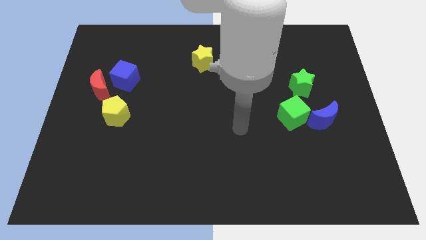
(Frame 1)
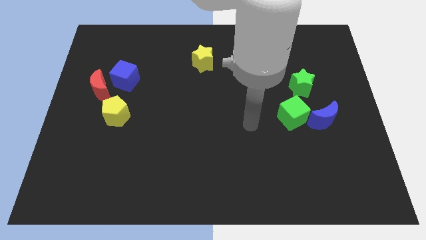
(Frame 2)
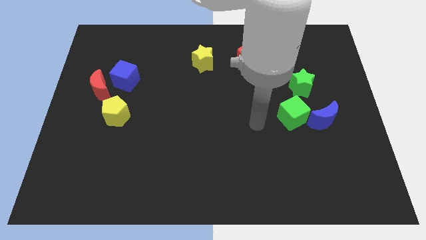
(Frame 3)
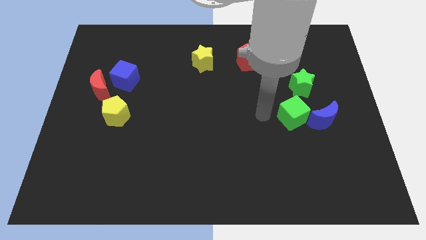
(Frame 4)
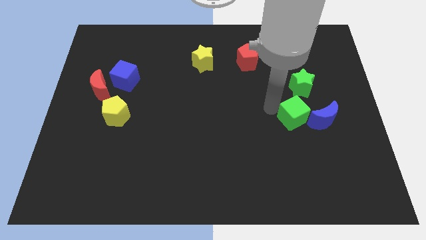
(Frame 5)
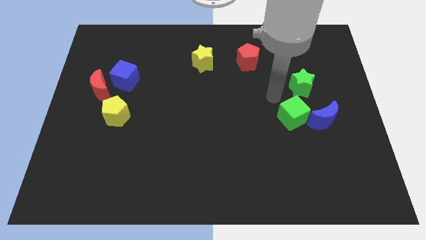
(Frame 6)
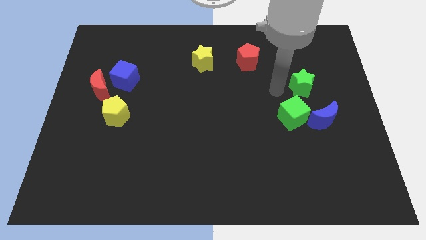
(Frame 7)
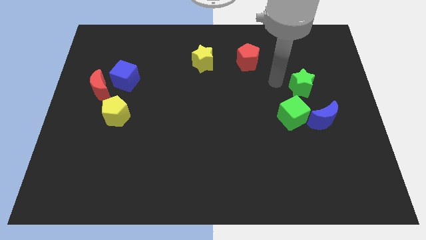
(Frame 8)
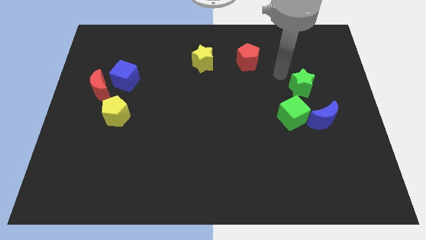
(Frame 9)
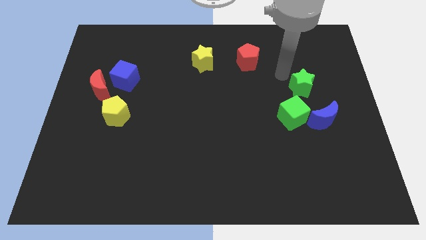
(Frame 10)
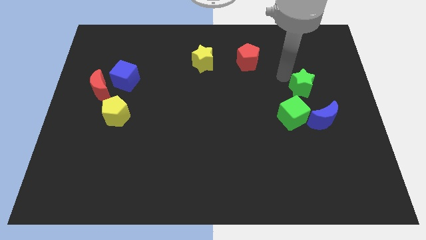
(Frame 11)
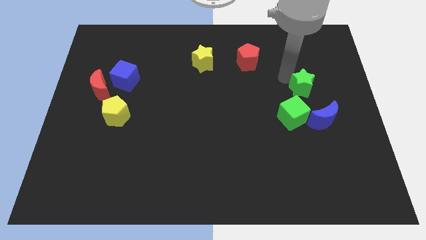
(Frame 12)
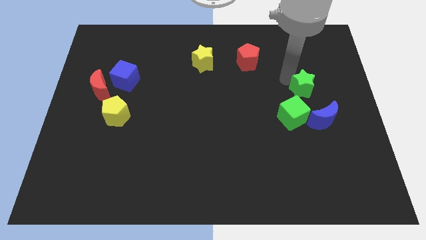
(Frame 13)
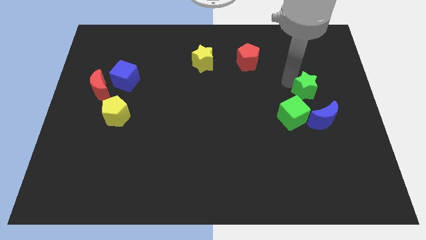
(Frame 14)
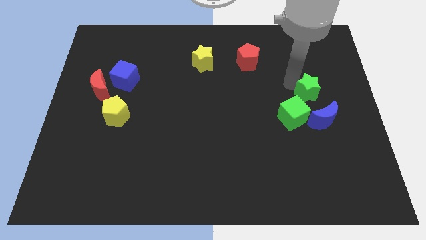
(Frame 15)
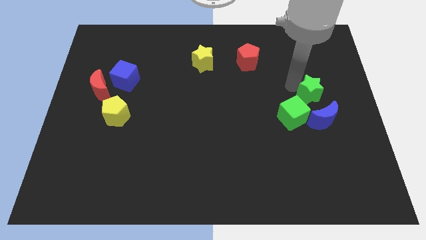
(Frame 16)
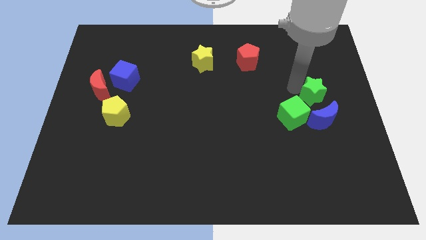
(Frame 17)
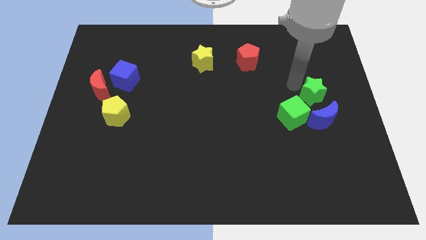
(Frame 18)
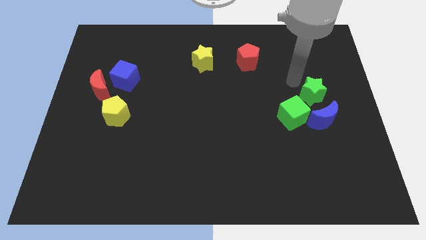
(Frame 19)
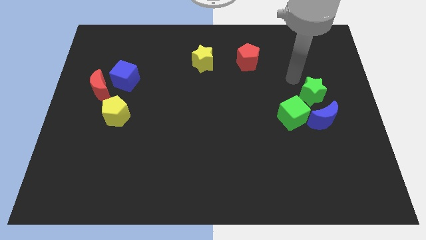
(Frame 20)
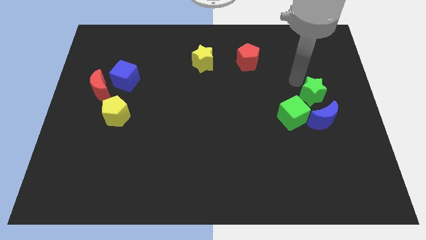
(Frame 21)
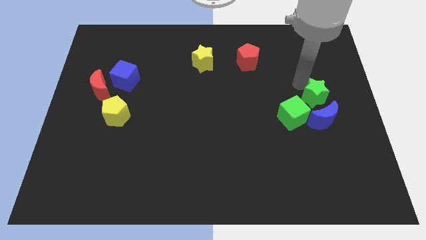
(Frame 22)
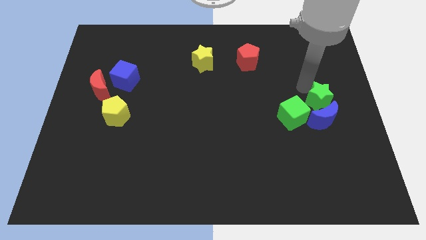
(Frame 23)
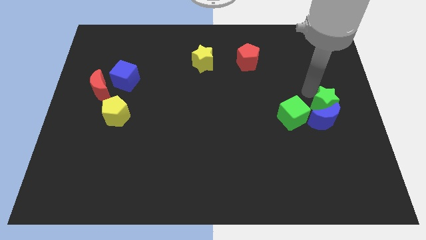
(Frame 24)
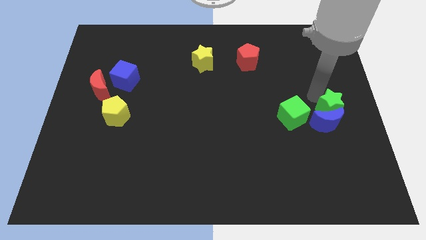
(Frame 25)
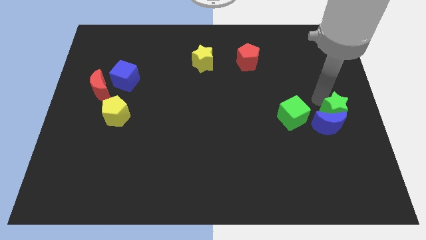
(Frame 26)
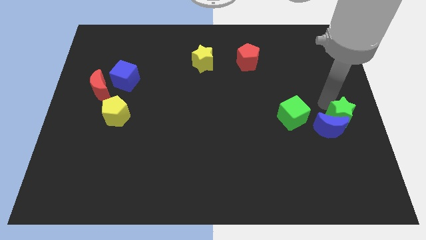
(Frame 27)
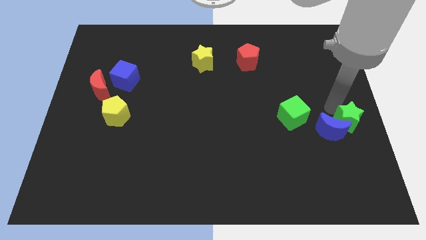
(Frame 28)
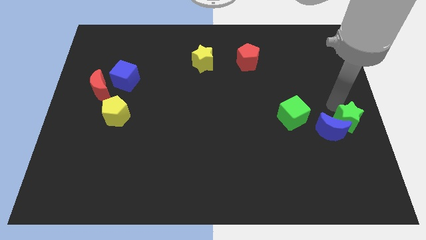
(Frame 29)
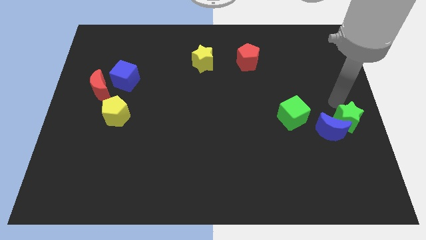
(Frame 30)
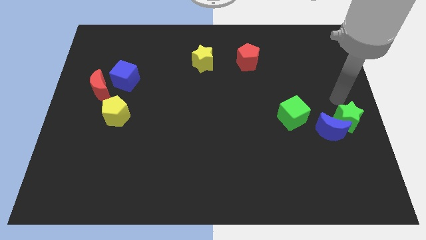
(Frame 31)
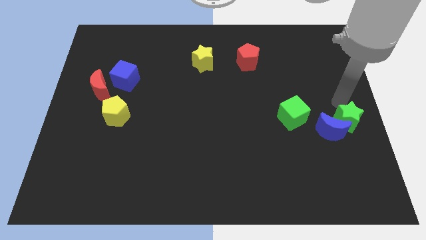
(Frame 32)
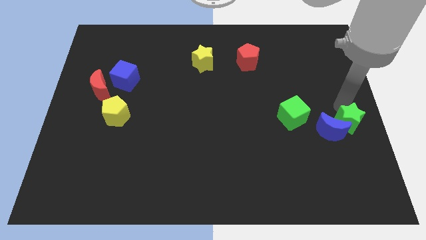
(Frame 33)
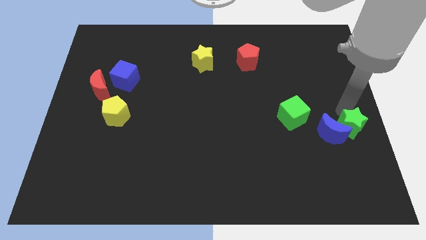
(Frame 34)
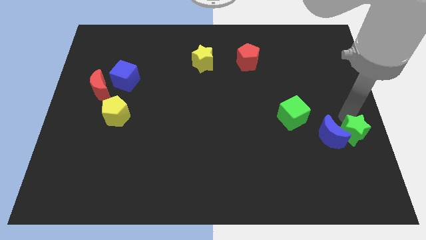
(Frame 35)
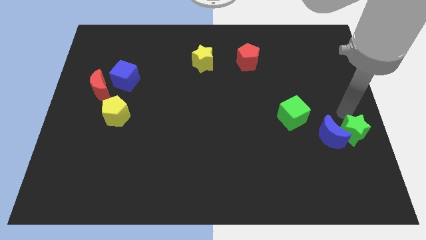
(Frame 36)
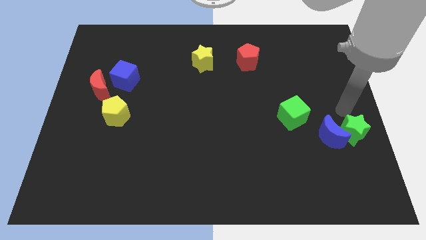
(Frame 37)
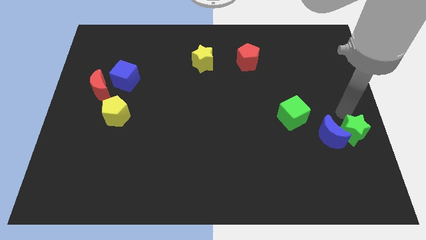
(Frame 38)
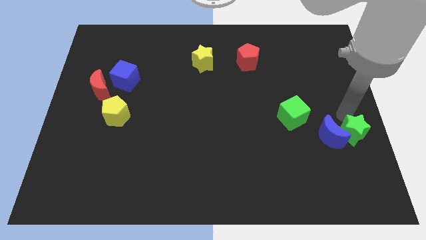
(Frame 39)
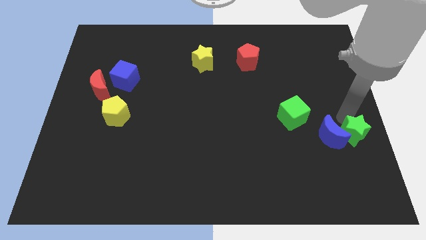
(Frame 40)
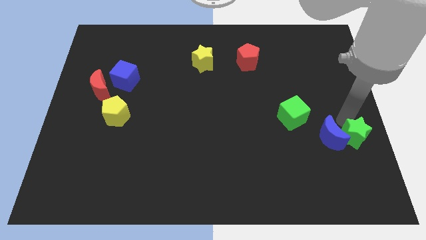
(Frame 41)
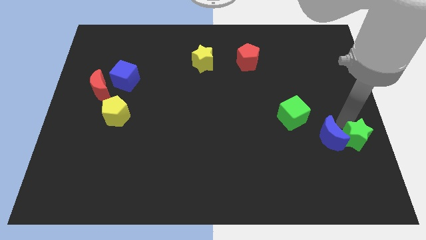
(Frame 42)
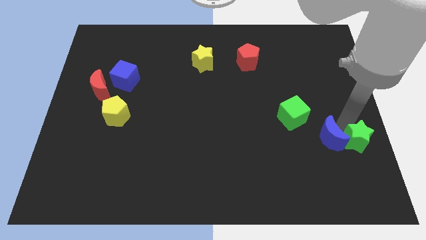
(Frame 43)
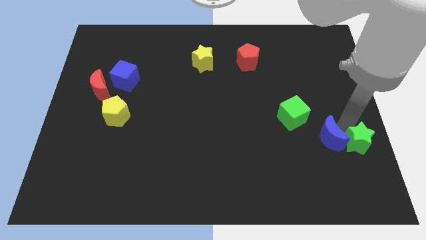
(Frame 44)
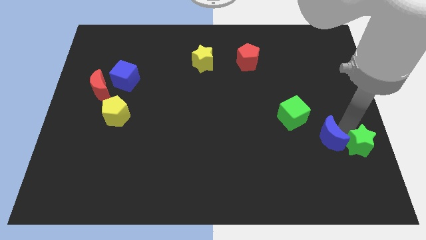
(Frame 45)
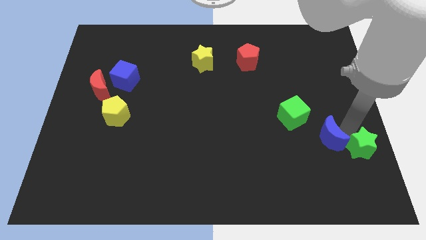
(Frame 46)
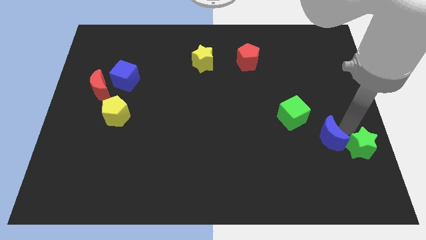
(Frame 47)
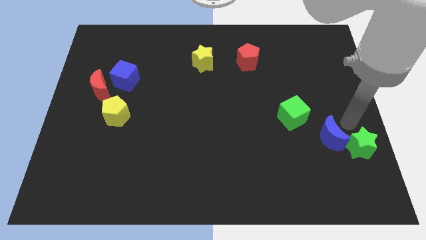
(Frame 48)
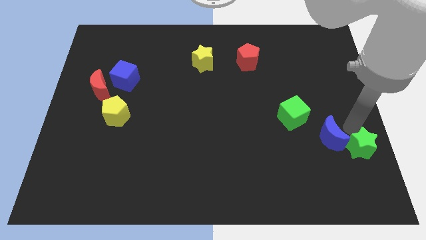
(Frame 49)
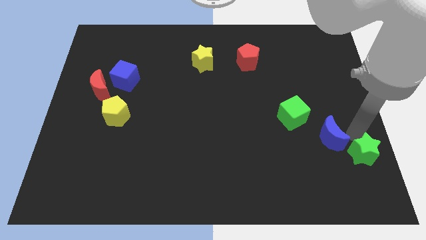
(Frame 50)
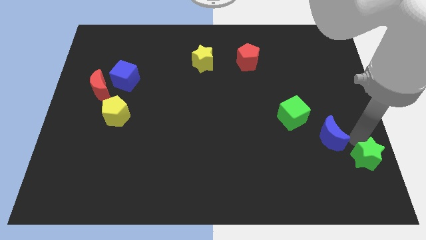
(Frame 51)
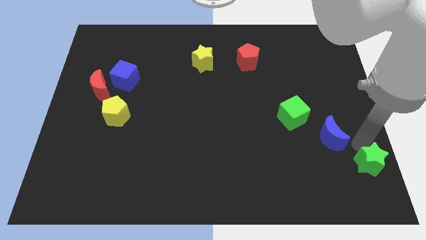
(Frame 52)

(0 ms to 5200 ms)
slide the green star to the lower right corner
